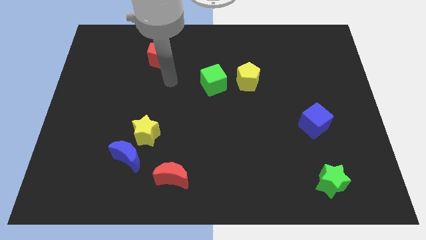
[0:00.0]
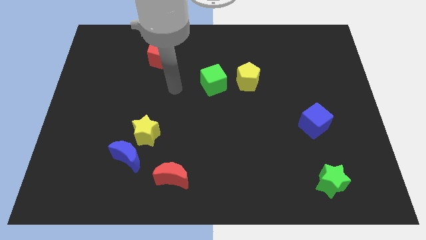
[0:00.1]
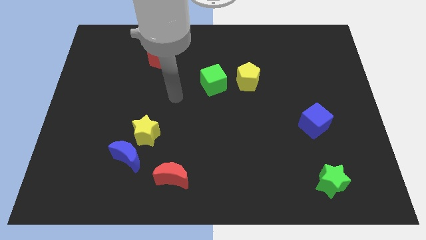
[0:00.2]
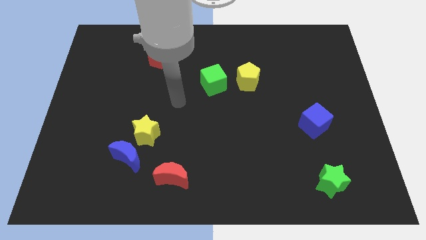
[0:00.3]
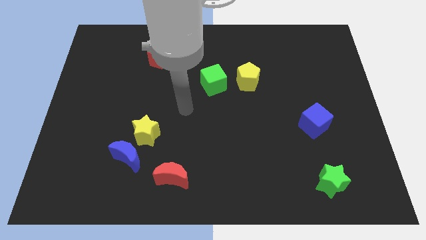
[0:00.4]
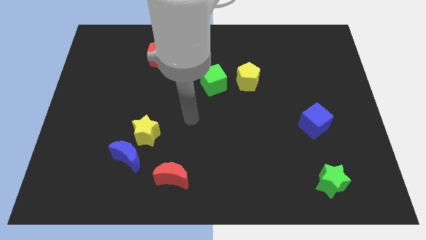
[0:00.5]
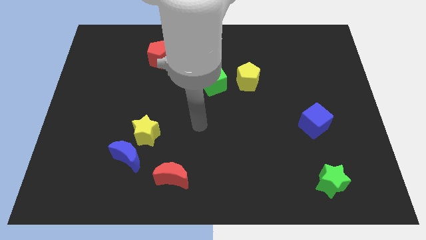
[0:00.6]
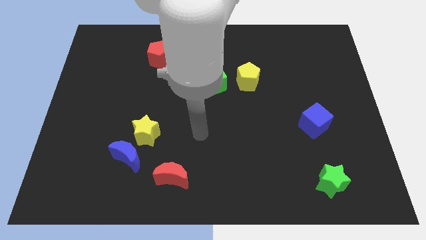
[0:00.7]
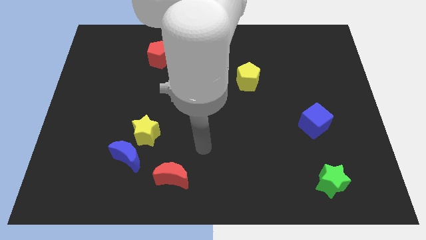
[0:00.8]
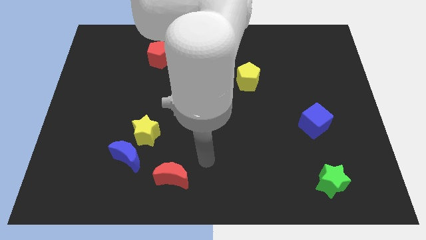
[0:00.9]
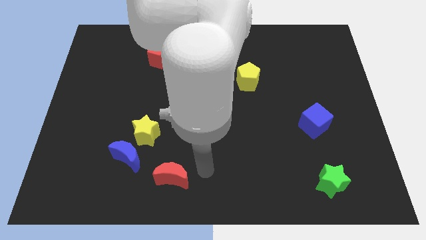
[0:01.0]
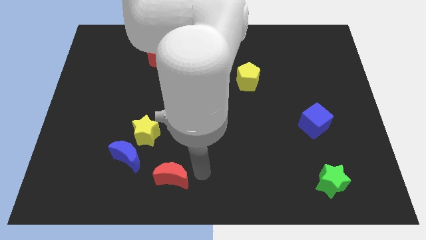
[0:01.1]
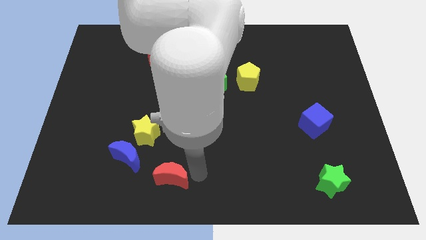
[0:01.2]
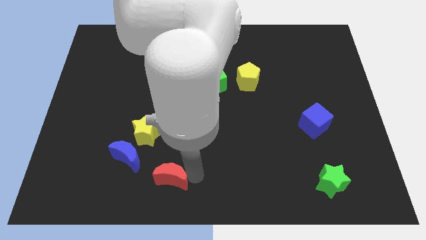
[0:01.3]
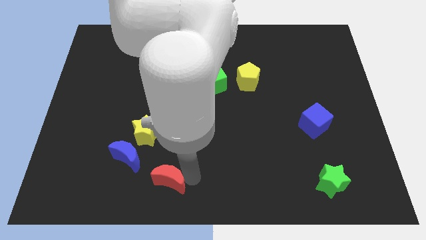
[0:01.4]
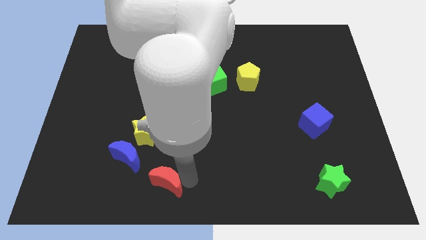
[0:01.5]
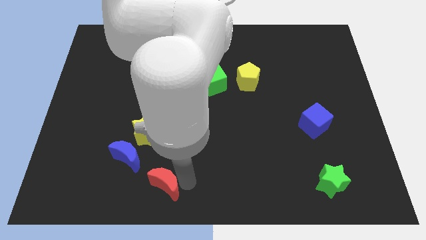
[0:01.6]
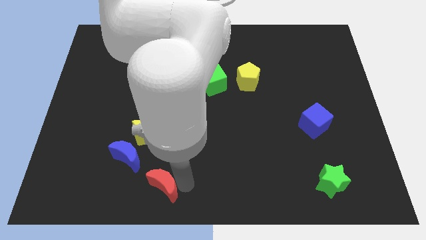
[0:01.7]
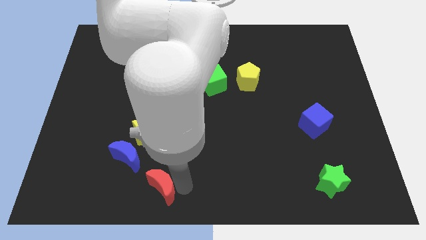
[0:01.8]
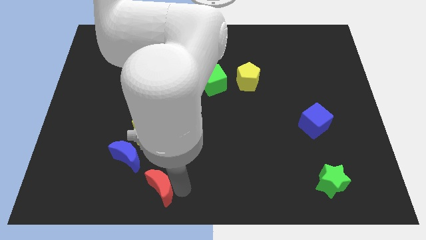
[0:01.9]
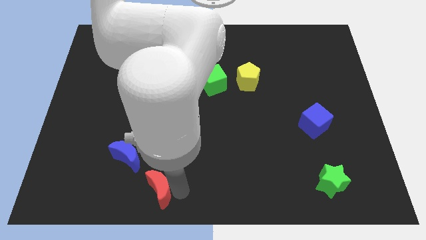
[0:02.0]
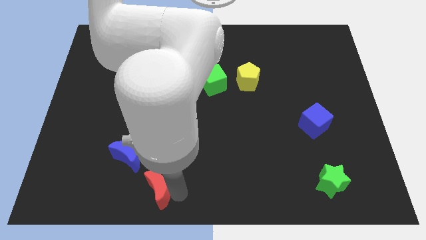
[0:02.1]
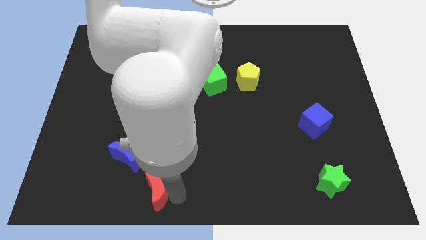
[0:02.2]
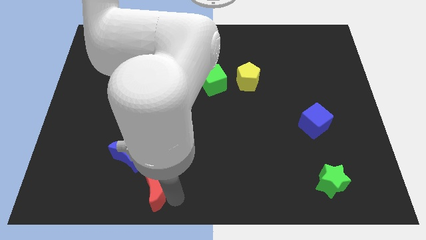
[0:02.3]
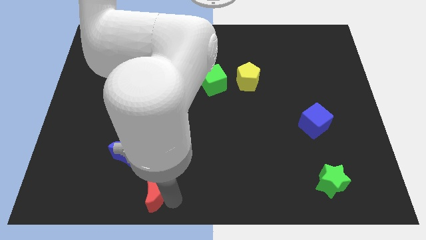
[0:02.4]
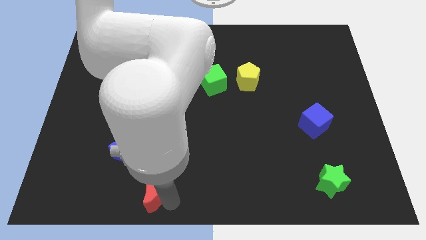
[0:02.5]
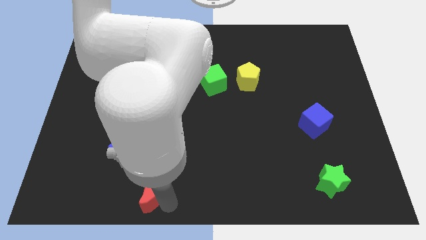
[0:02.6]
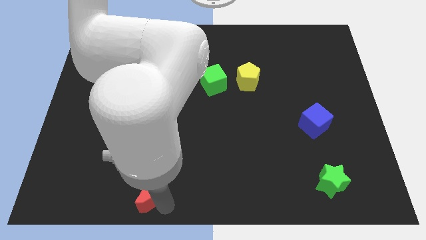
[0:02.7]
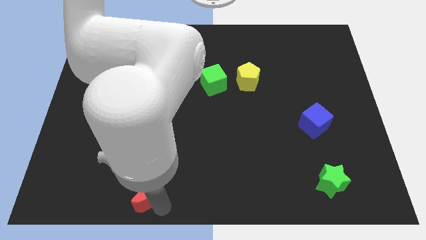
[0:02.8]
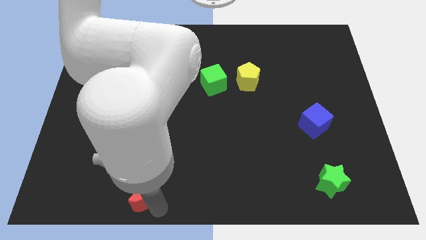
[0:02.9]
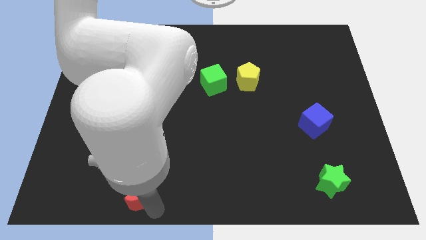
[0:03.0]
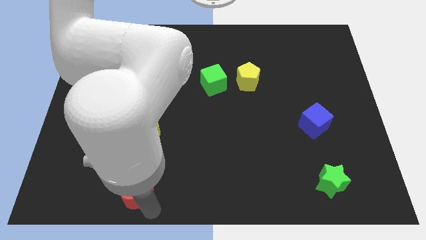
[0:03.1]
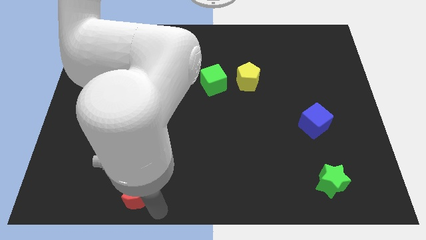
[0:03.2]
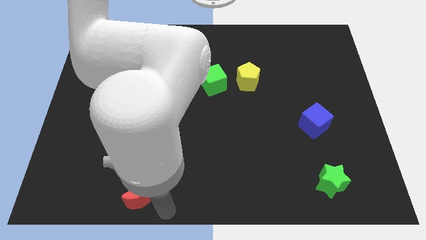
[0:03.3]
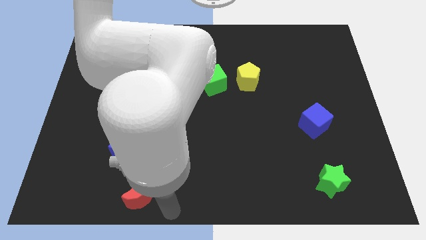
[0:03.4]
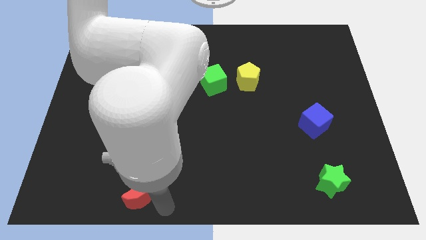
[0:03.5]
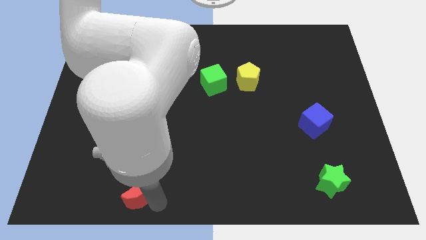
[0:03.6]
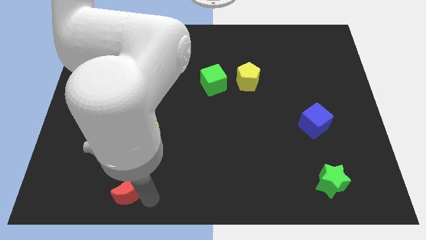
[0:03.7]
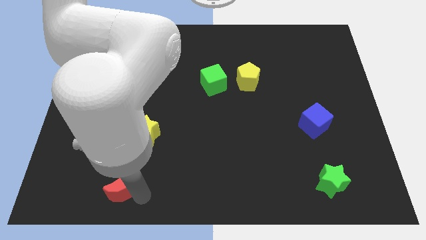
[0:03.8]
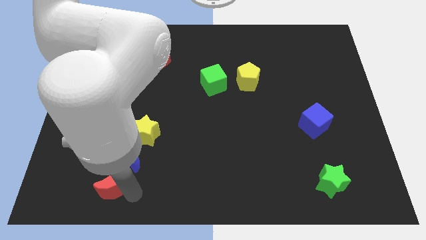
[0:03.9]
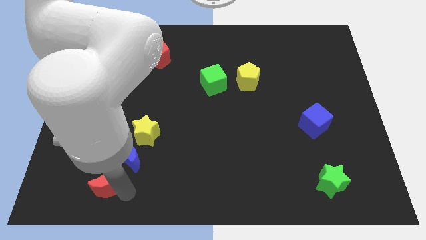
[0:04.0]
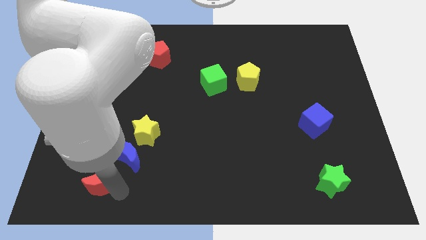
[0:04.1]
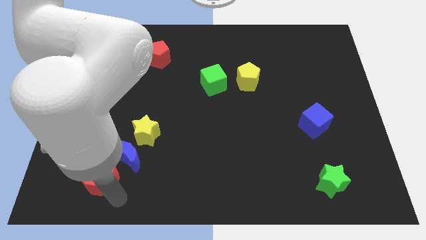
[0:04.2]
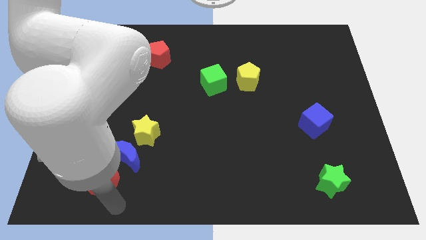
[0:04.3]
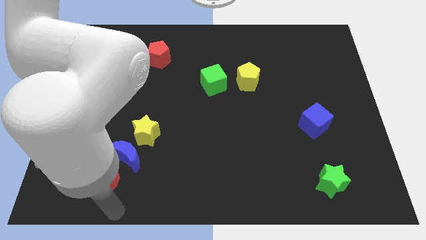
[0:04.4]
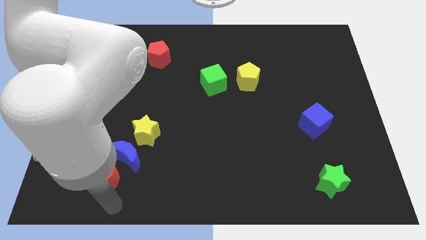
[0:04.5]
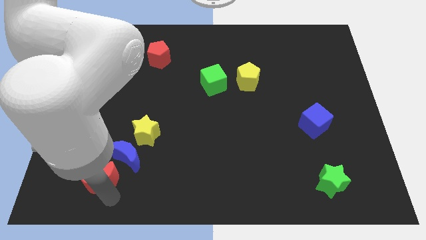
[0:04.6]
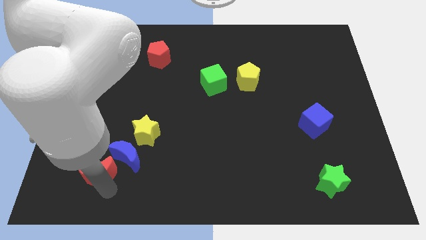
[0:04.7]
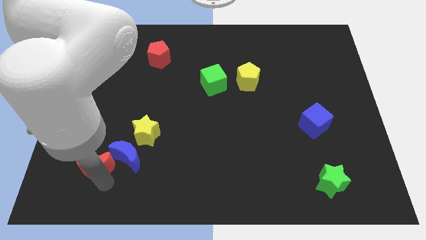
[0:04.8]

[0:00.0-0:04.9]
slide the red moon upwards and left diagonally a bit

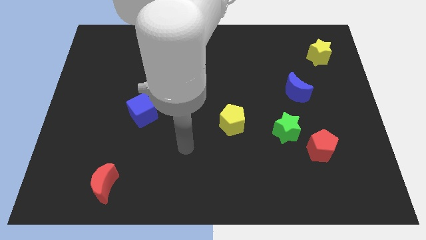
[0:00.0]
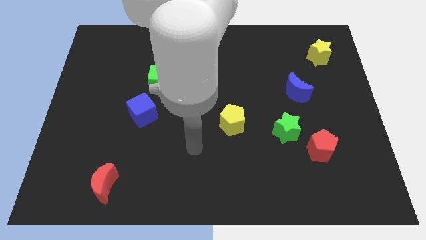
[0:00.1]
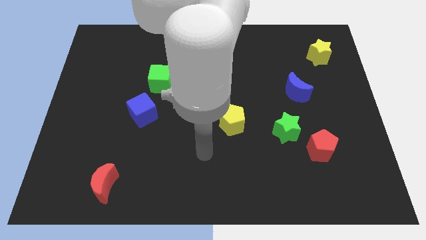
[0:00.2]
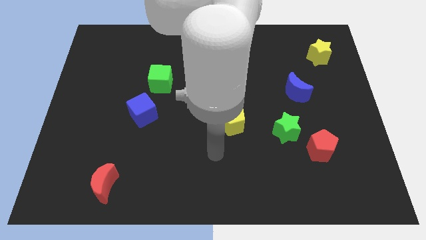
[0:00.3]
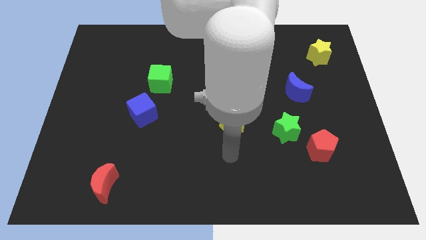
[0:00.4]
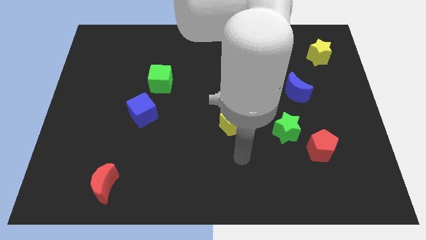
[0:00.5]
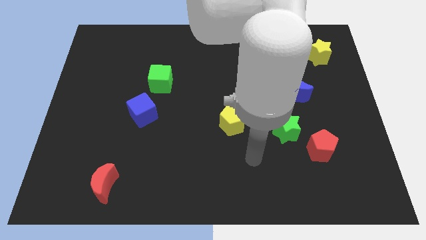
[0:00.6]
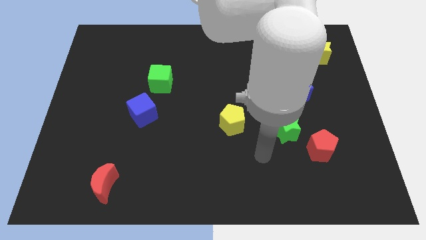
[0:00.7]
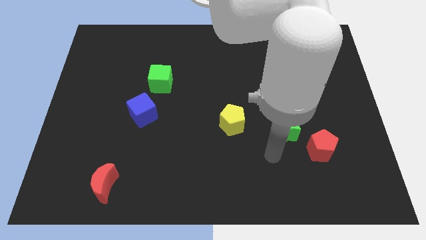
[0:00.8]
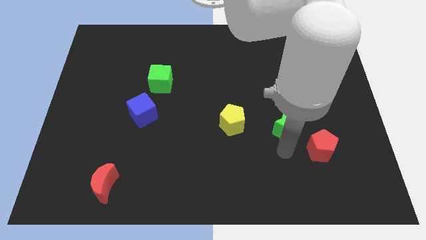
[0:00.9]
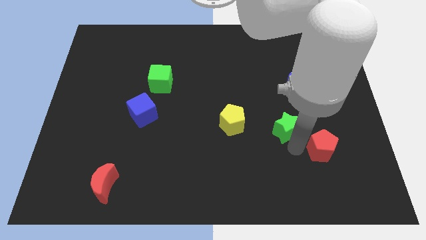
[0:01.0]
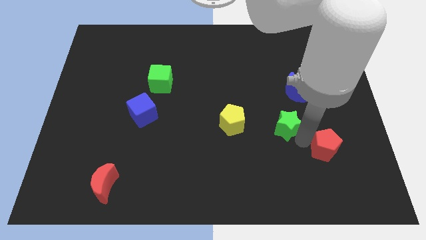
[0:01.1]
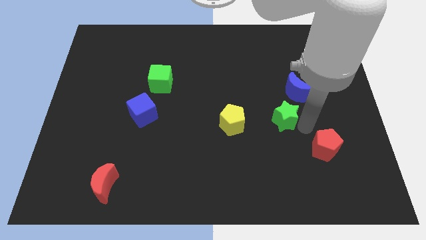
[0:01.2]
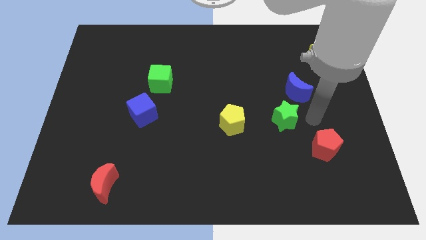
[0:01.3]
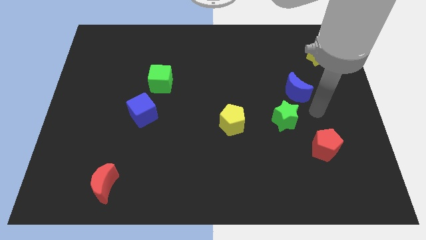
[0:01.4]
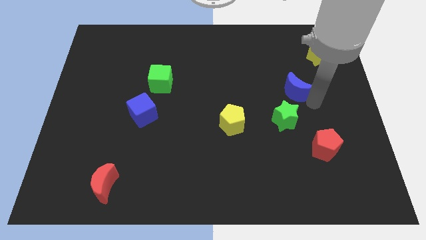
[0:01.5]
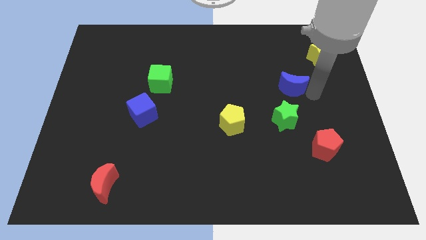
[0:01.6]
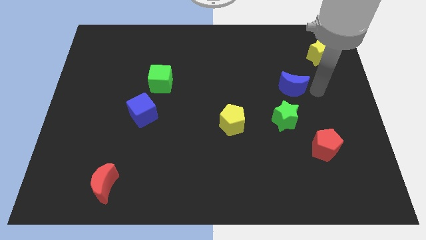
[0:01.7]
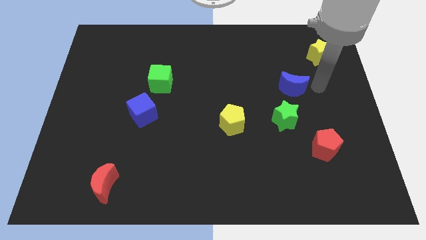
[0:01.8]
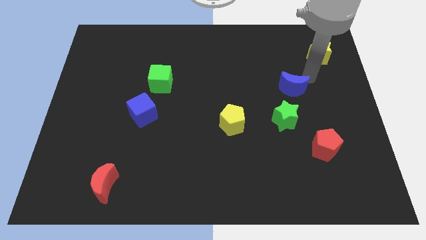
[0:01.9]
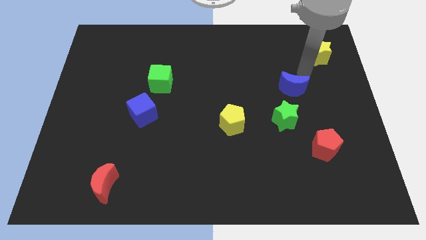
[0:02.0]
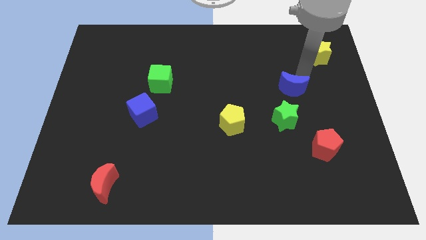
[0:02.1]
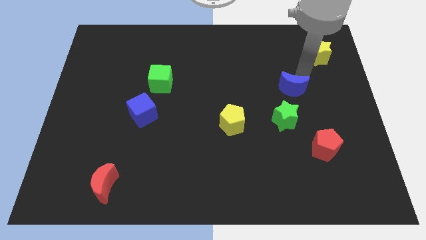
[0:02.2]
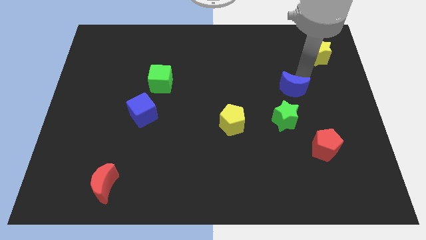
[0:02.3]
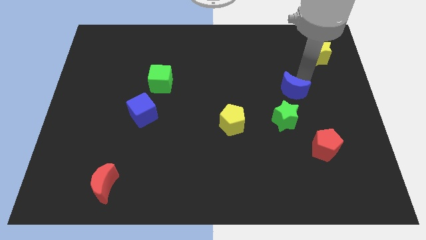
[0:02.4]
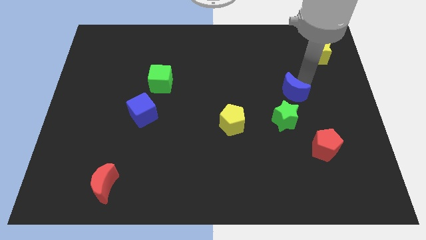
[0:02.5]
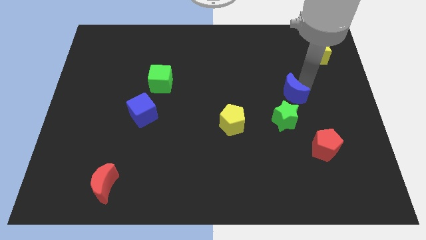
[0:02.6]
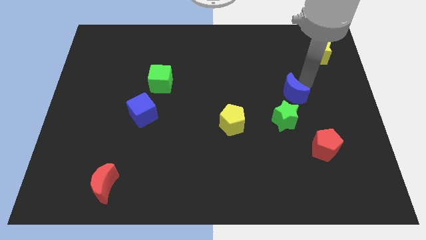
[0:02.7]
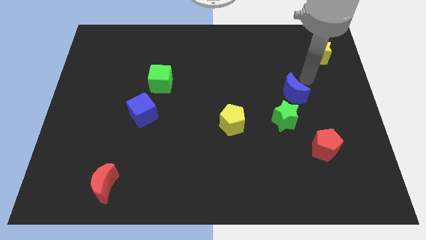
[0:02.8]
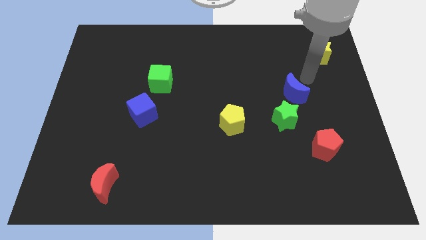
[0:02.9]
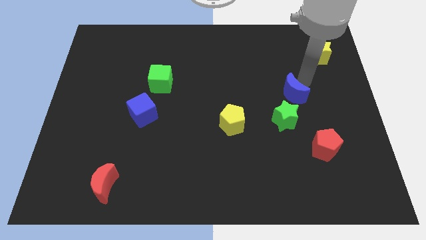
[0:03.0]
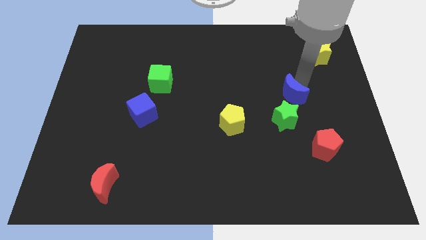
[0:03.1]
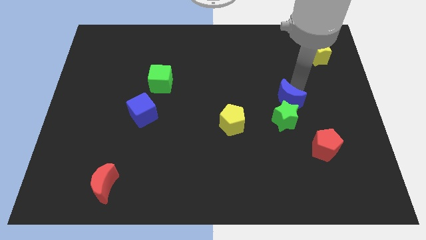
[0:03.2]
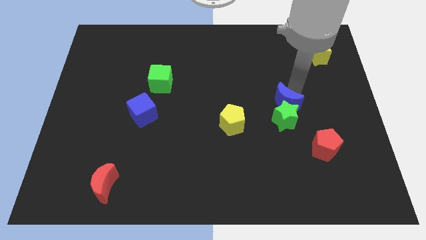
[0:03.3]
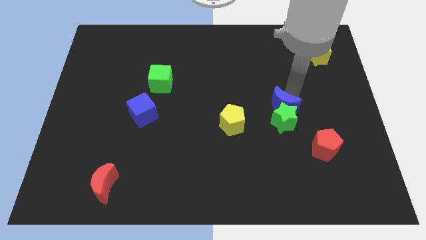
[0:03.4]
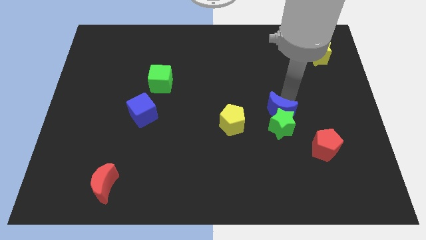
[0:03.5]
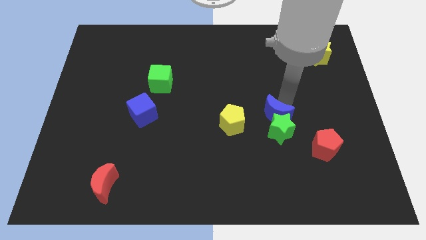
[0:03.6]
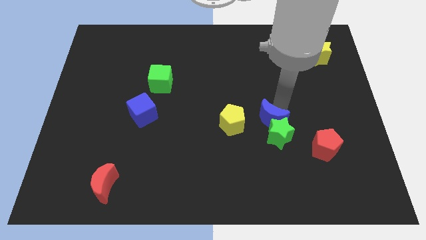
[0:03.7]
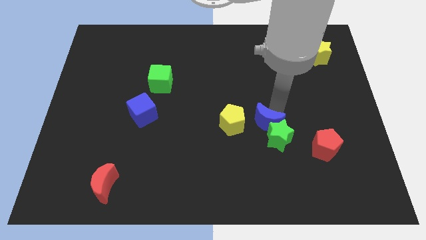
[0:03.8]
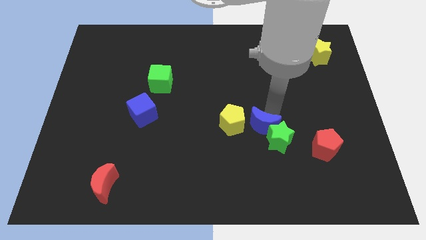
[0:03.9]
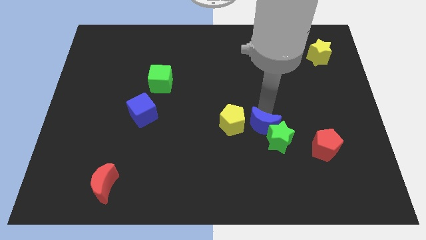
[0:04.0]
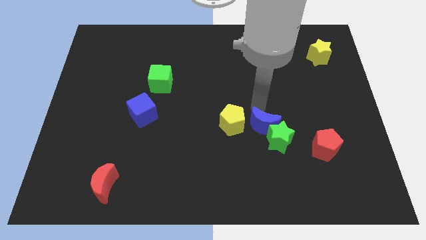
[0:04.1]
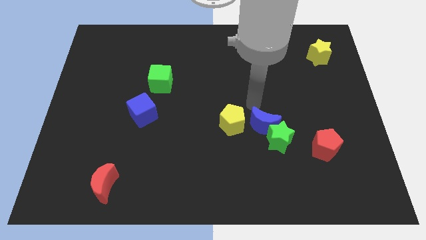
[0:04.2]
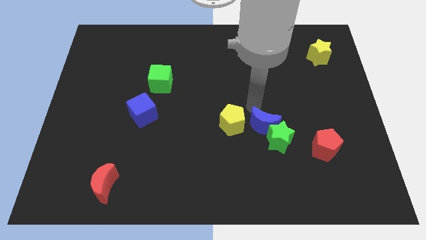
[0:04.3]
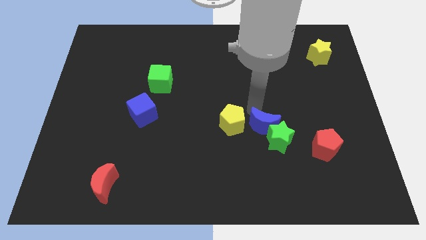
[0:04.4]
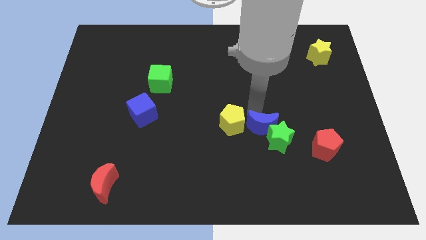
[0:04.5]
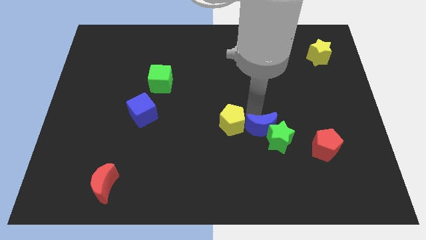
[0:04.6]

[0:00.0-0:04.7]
slightly slide the blue moon down
